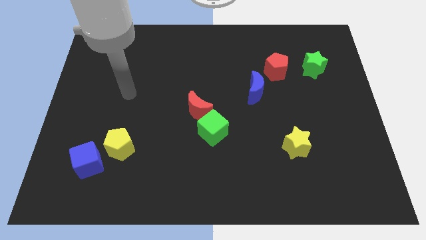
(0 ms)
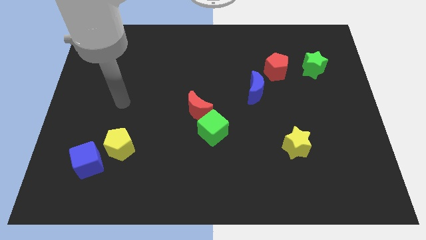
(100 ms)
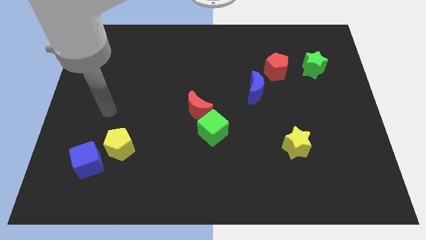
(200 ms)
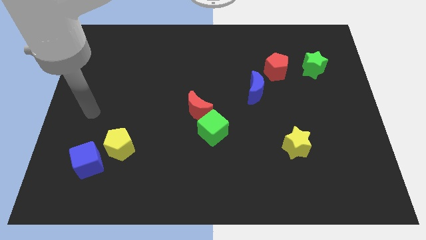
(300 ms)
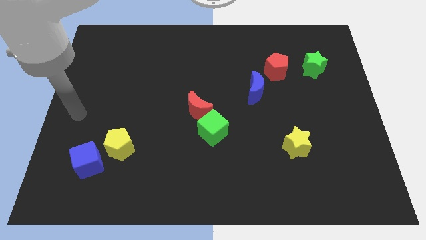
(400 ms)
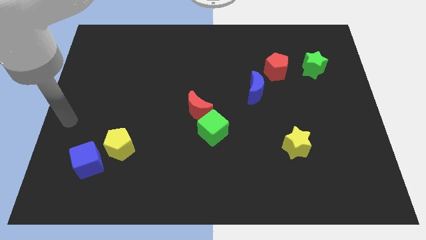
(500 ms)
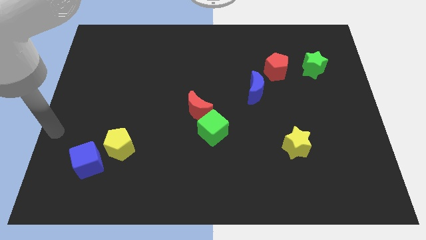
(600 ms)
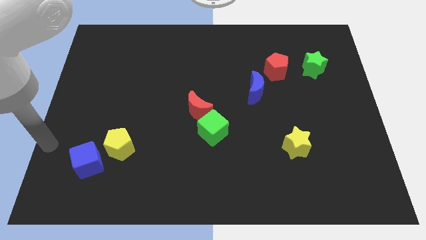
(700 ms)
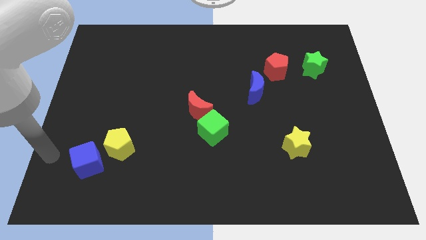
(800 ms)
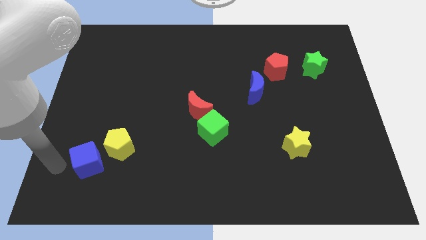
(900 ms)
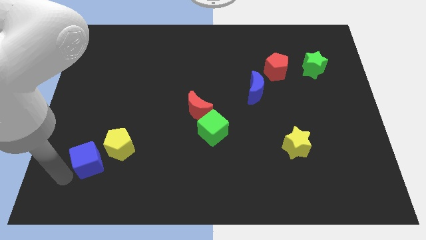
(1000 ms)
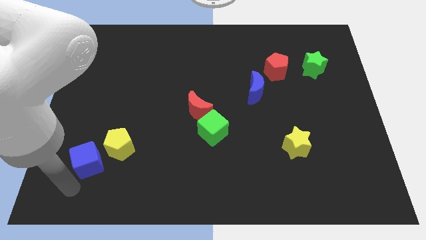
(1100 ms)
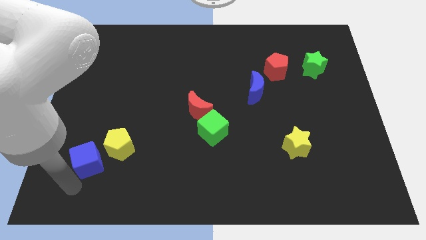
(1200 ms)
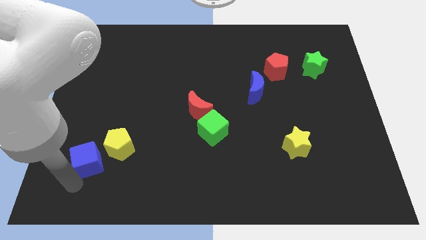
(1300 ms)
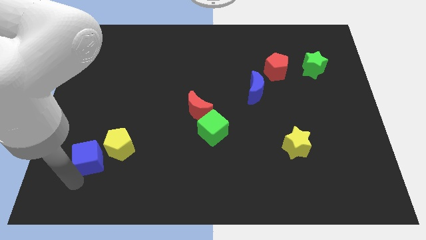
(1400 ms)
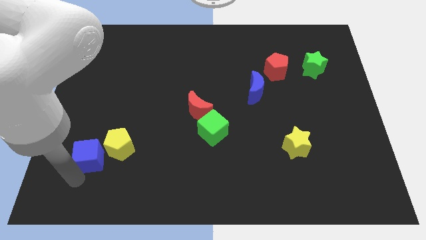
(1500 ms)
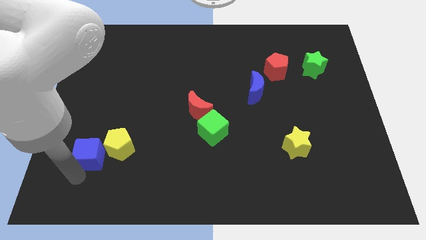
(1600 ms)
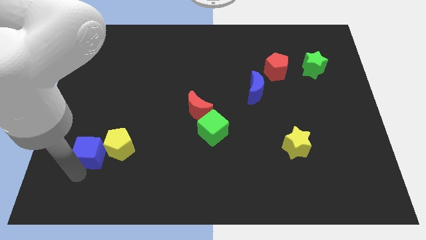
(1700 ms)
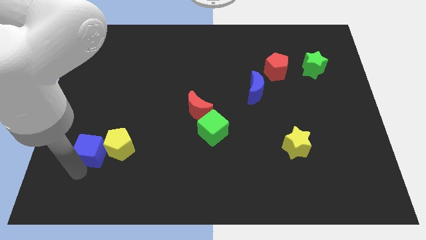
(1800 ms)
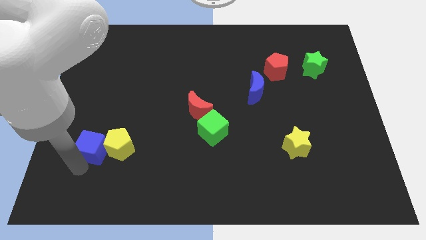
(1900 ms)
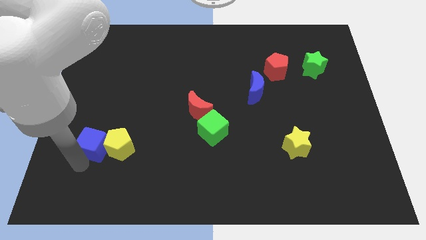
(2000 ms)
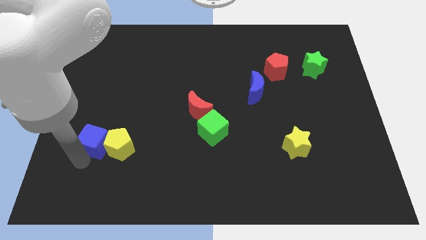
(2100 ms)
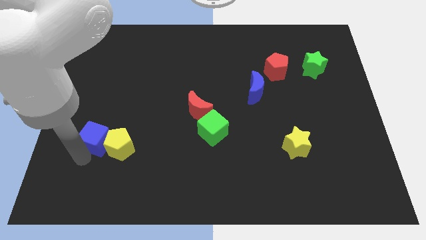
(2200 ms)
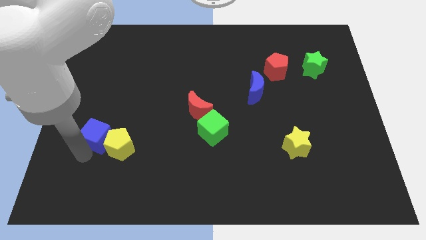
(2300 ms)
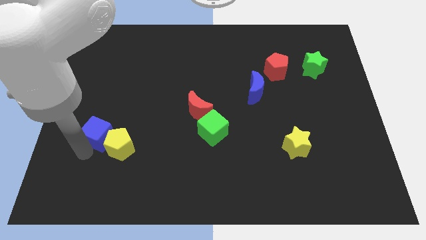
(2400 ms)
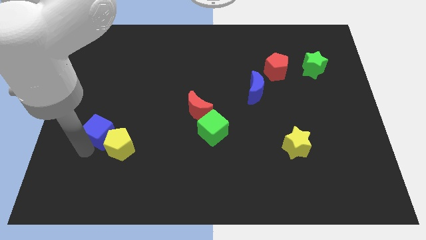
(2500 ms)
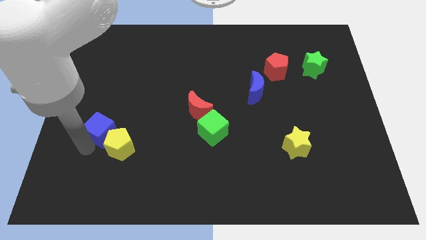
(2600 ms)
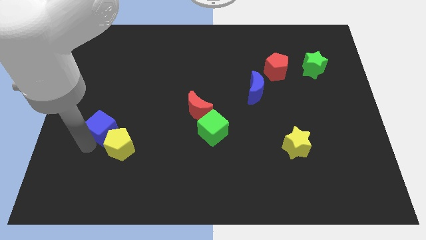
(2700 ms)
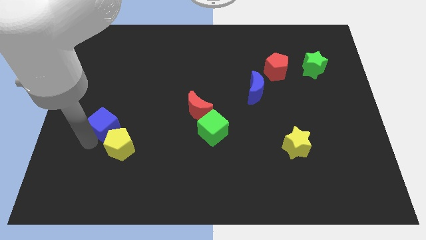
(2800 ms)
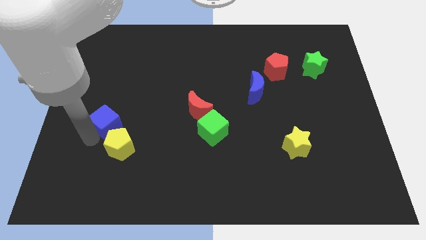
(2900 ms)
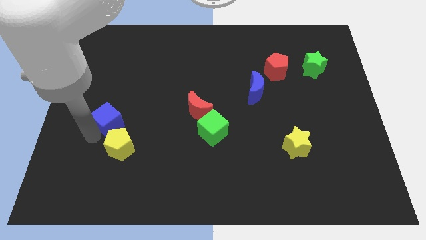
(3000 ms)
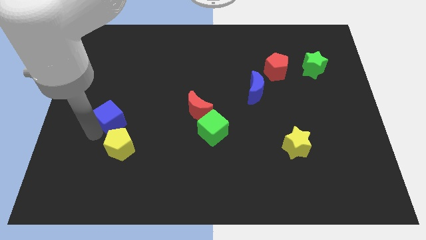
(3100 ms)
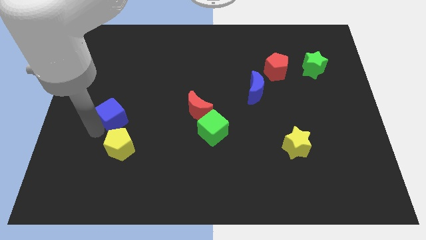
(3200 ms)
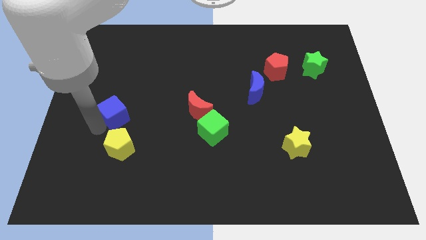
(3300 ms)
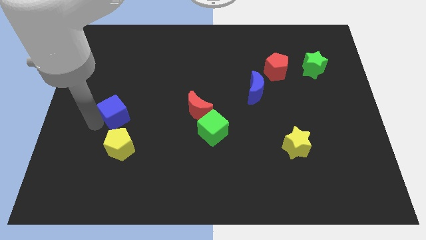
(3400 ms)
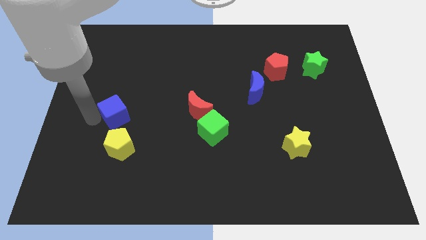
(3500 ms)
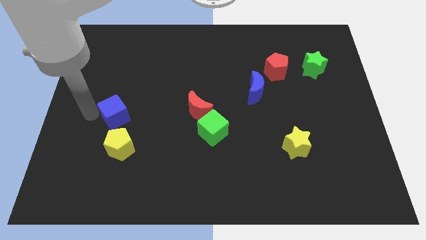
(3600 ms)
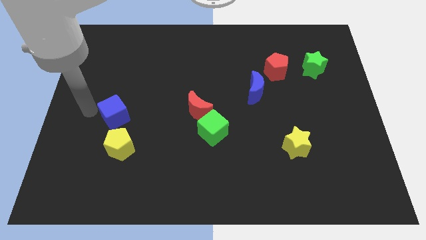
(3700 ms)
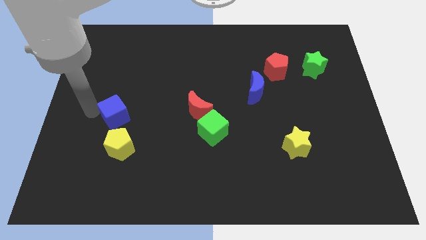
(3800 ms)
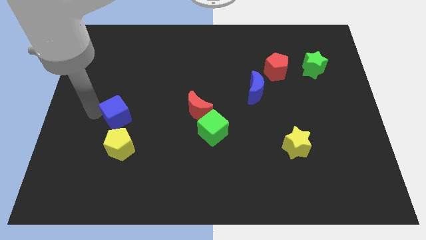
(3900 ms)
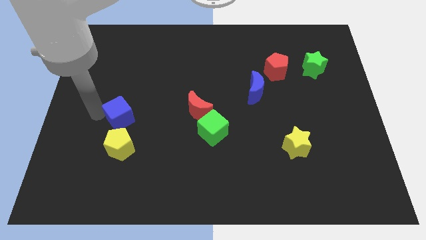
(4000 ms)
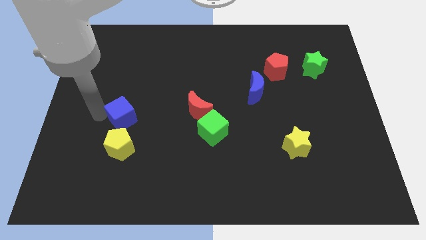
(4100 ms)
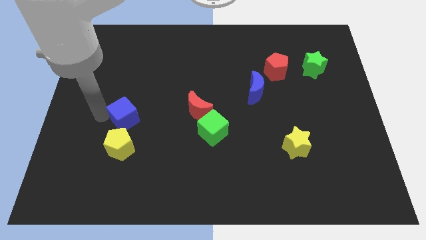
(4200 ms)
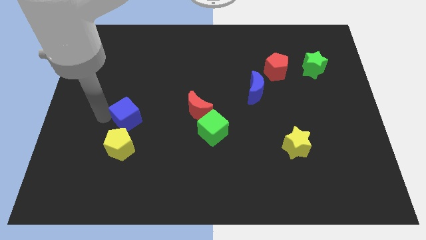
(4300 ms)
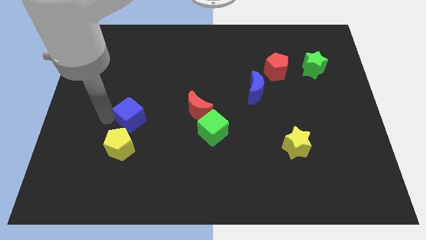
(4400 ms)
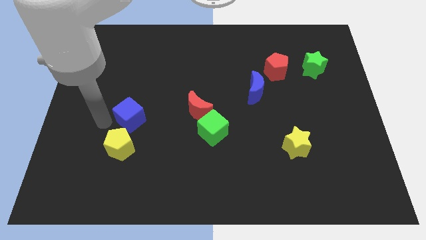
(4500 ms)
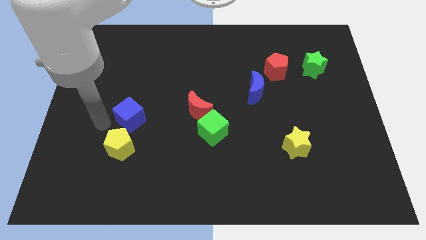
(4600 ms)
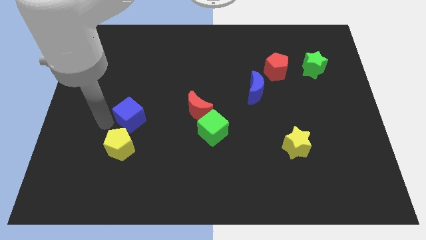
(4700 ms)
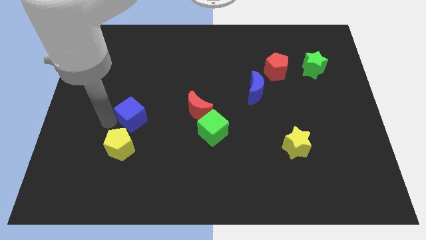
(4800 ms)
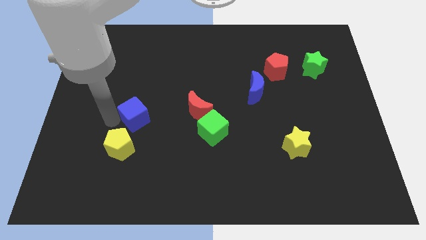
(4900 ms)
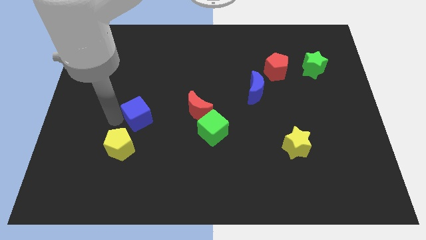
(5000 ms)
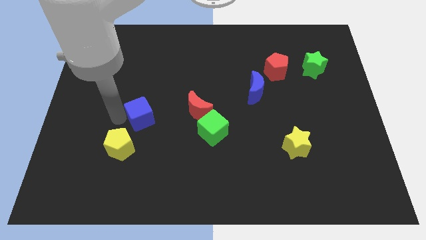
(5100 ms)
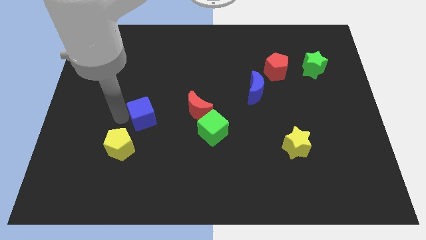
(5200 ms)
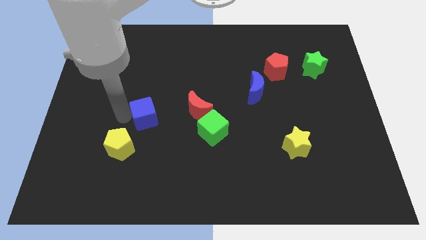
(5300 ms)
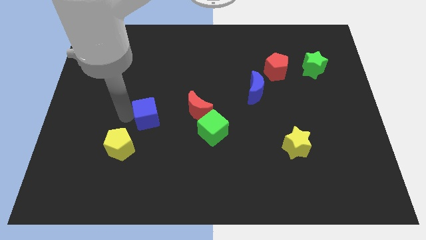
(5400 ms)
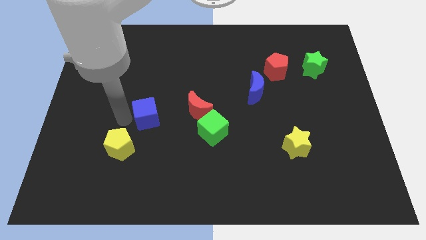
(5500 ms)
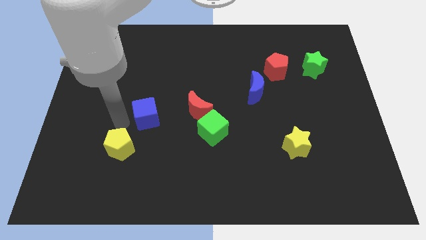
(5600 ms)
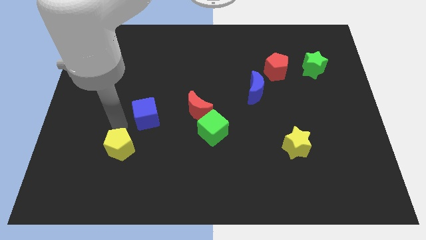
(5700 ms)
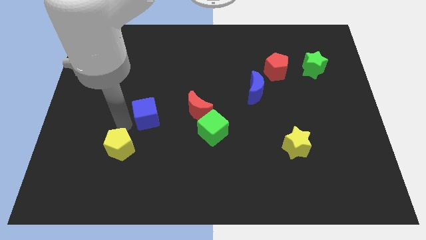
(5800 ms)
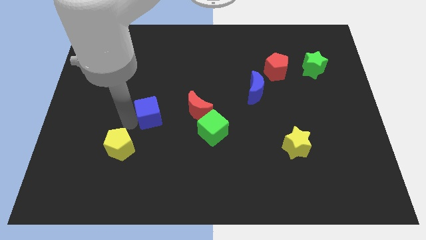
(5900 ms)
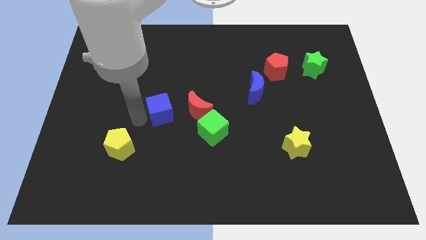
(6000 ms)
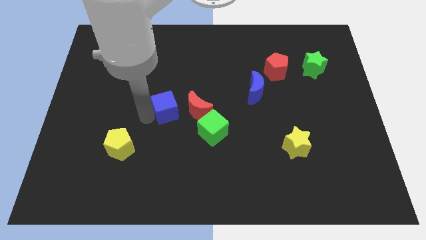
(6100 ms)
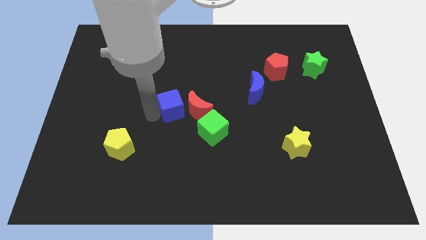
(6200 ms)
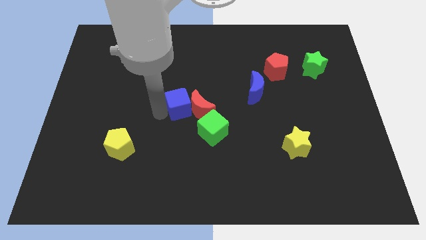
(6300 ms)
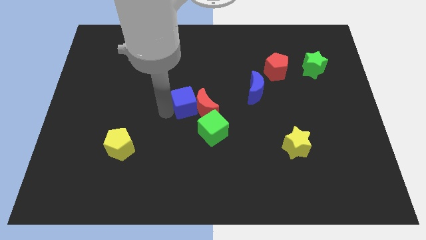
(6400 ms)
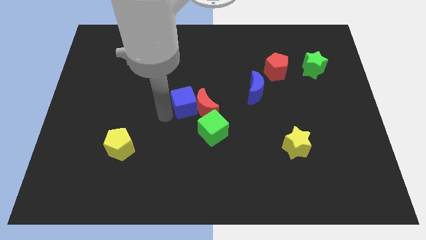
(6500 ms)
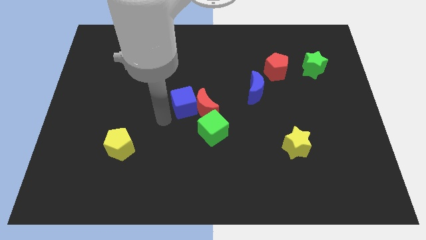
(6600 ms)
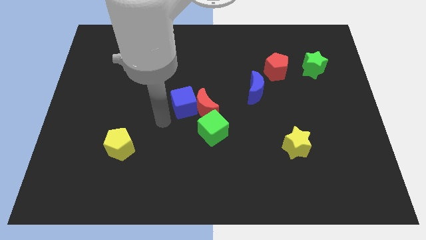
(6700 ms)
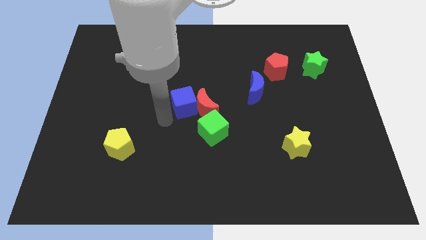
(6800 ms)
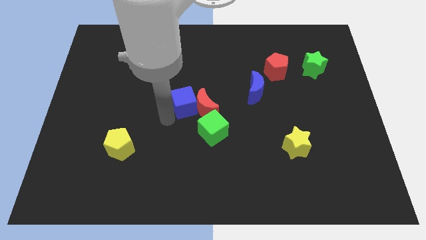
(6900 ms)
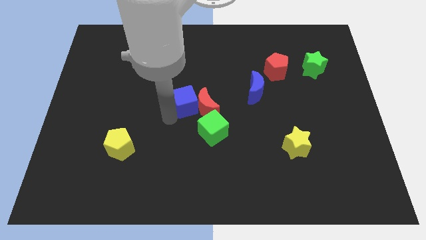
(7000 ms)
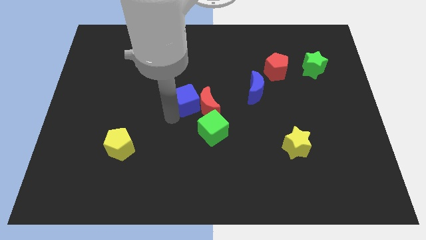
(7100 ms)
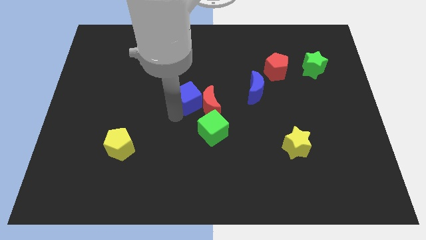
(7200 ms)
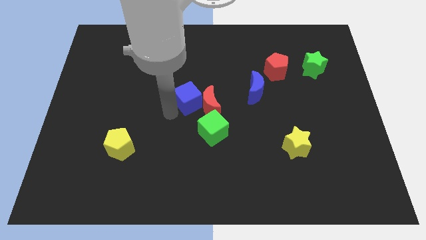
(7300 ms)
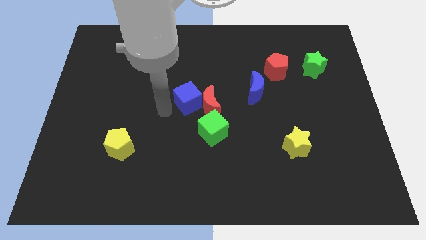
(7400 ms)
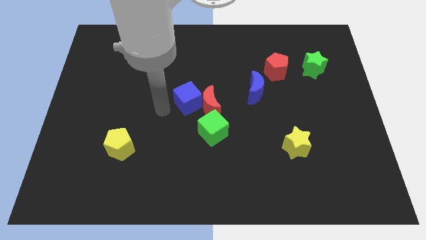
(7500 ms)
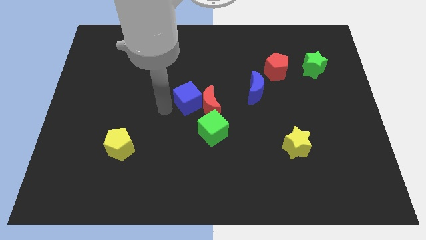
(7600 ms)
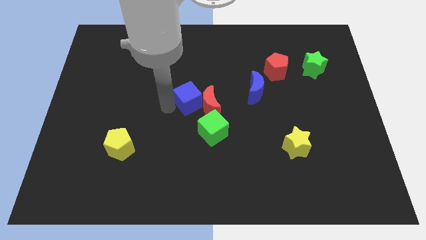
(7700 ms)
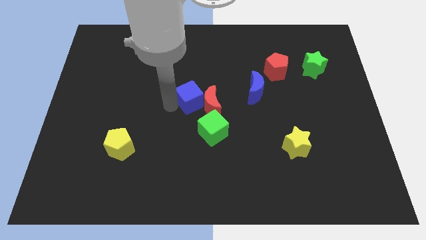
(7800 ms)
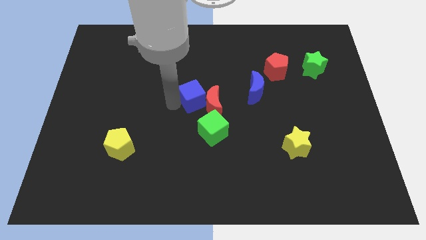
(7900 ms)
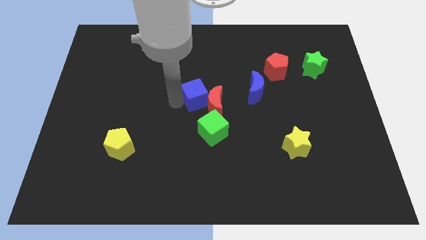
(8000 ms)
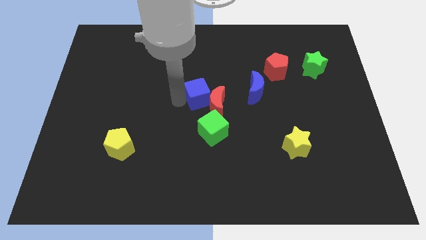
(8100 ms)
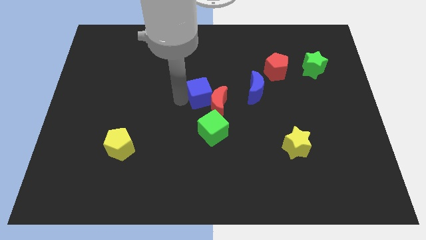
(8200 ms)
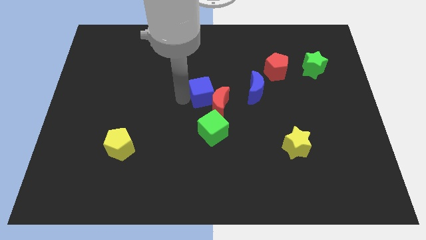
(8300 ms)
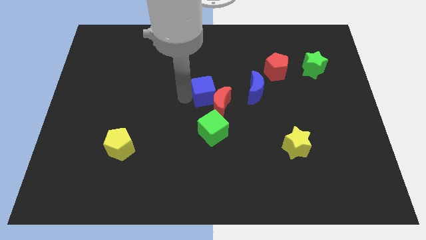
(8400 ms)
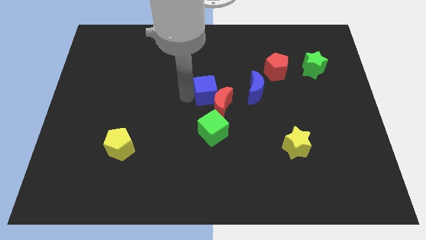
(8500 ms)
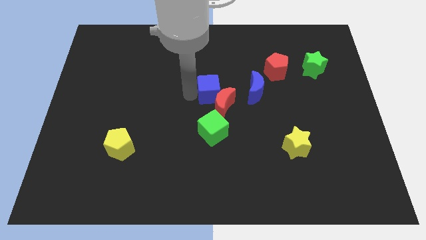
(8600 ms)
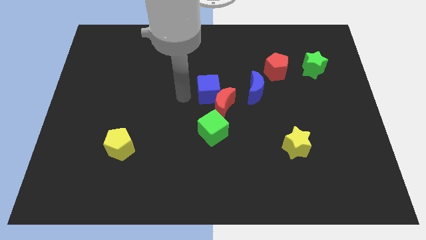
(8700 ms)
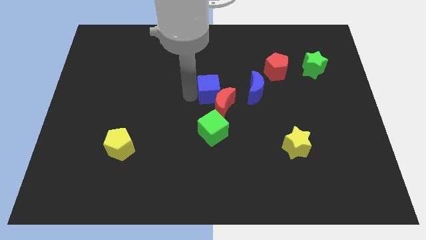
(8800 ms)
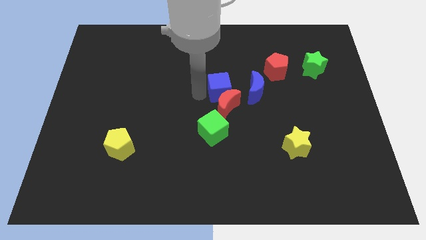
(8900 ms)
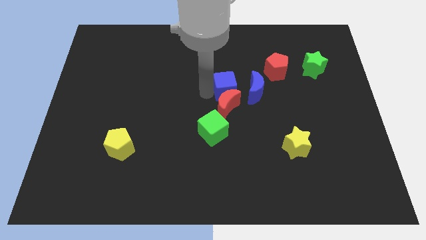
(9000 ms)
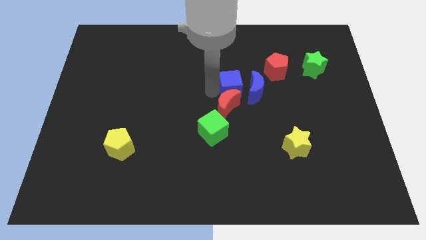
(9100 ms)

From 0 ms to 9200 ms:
move the blue cube towards the blue moon
